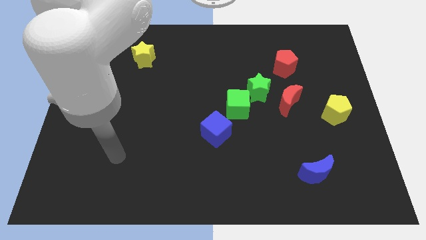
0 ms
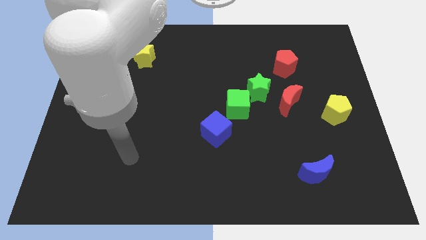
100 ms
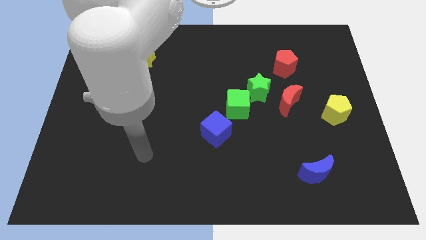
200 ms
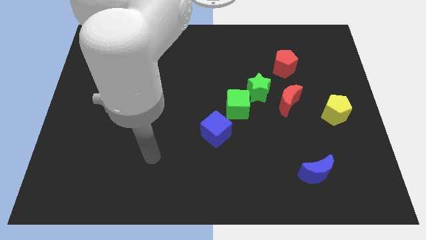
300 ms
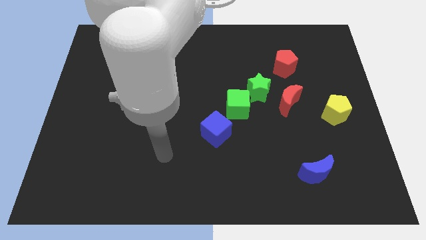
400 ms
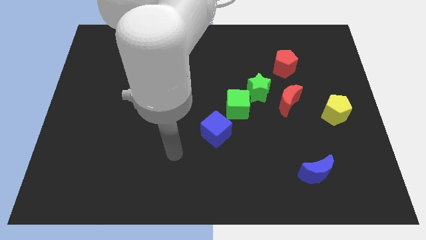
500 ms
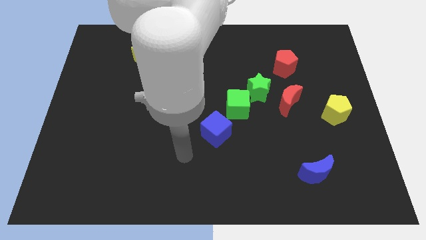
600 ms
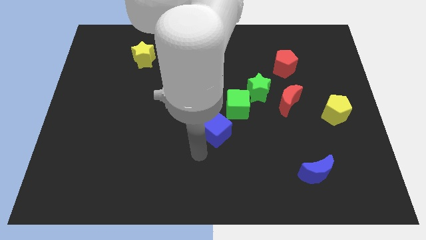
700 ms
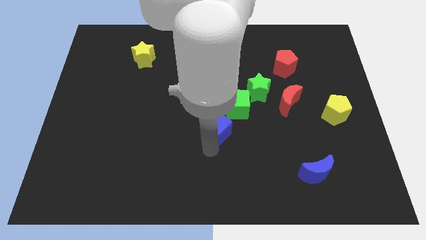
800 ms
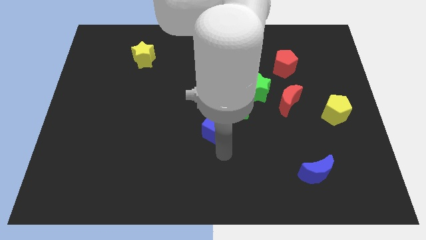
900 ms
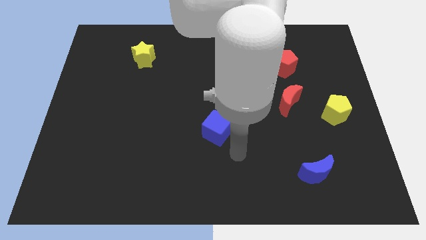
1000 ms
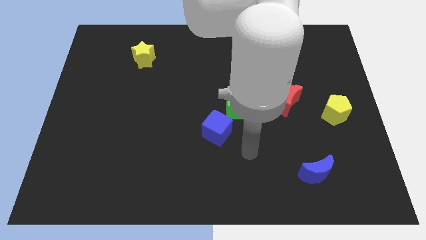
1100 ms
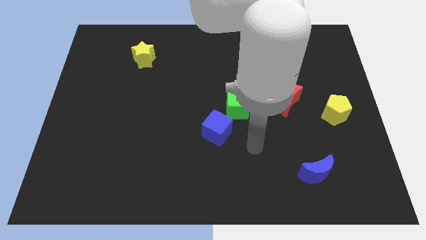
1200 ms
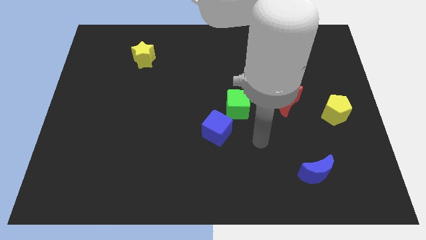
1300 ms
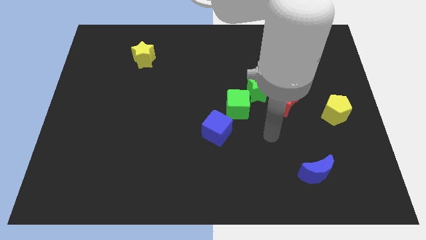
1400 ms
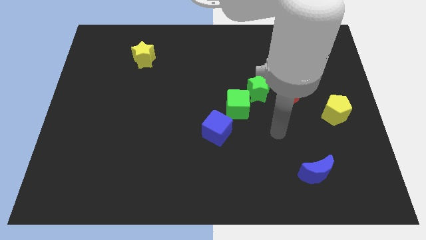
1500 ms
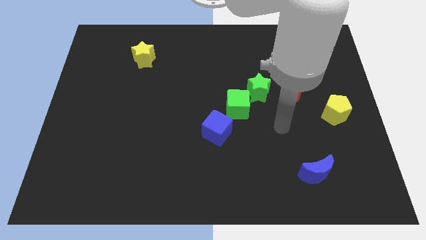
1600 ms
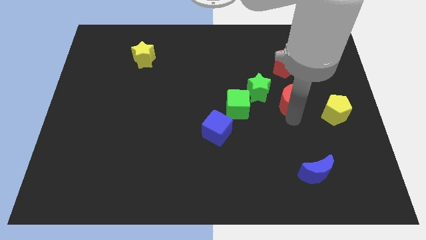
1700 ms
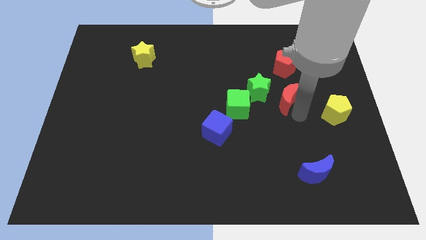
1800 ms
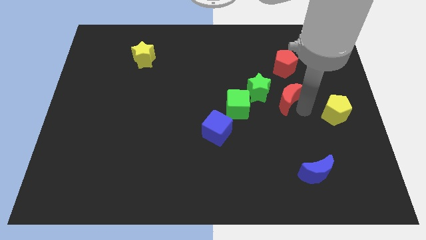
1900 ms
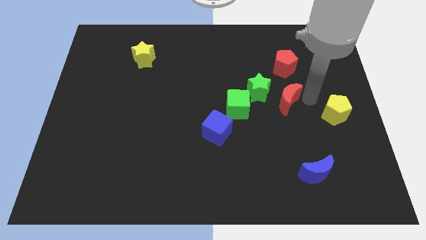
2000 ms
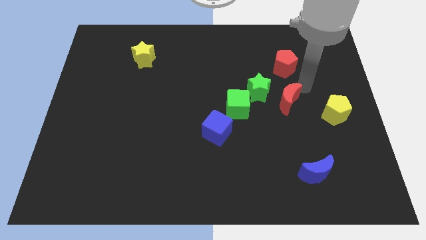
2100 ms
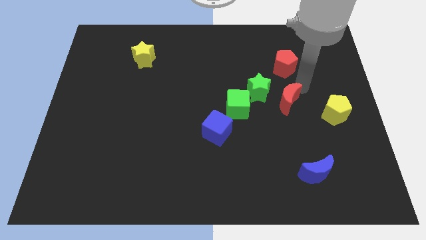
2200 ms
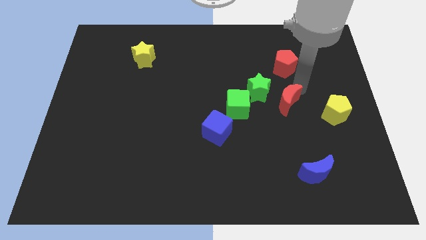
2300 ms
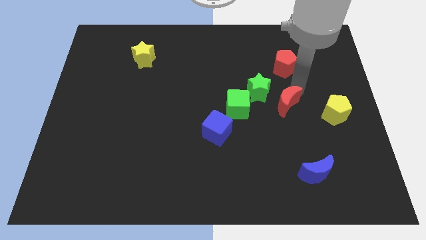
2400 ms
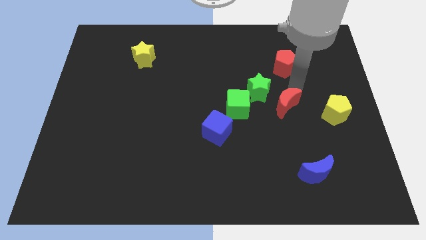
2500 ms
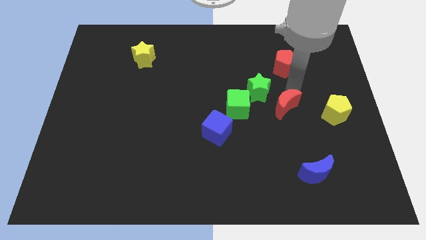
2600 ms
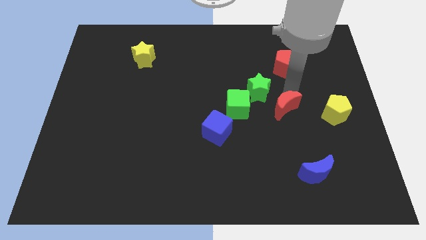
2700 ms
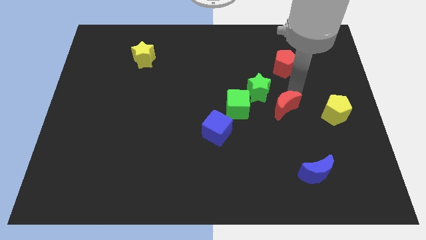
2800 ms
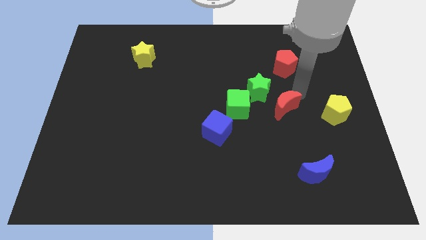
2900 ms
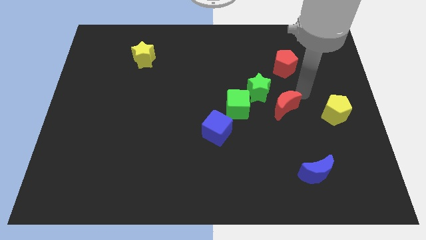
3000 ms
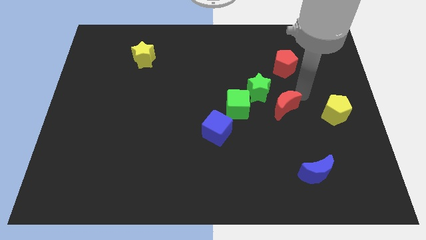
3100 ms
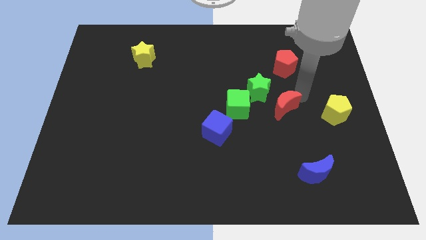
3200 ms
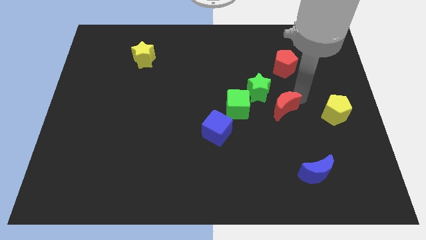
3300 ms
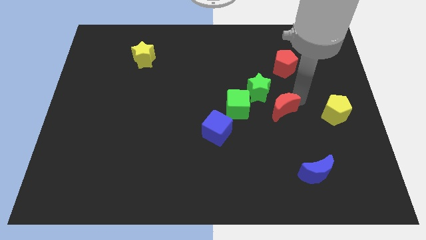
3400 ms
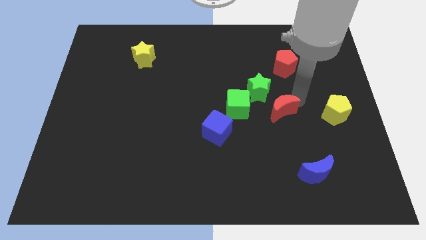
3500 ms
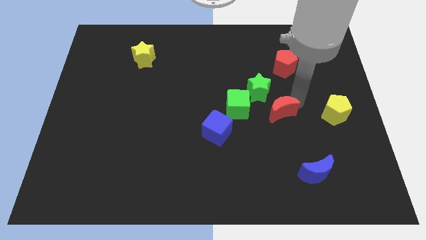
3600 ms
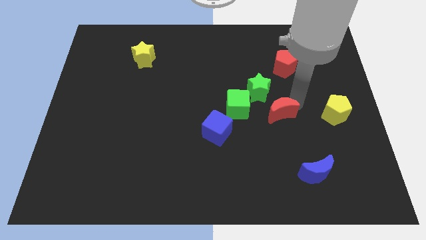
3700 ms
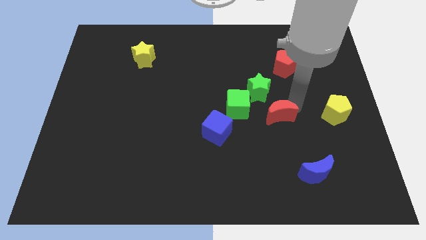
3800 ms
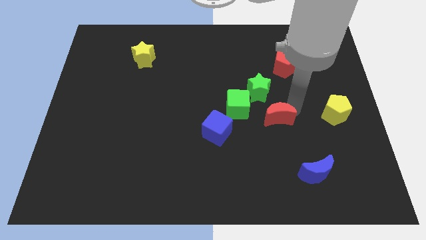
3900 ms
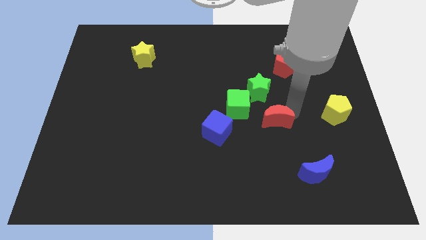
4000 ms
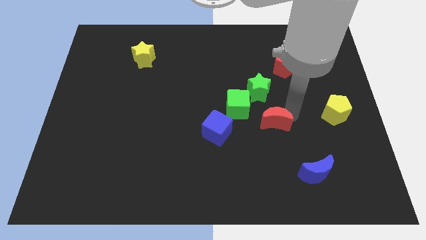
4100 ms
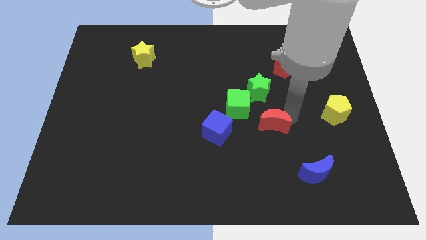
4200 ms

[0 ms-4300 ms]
push the red moon downwards and to the left slightly

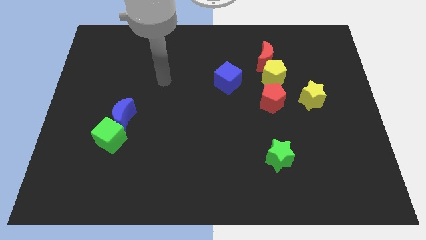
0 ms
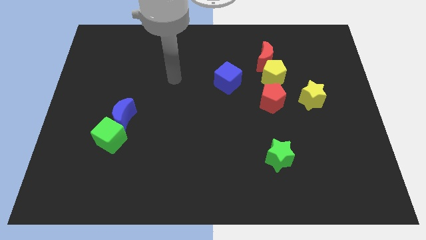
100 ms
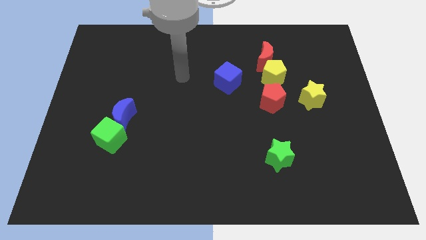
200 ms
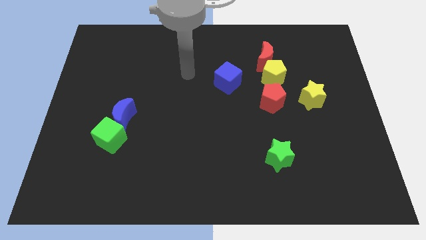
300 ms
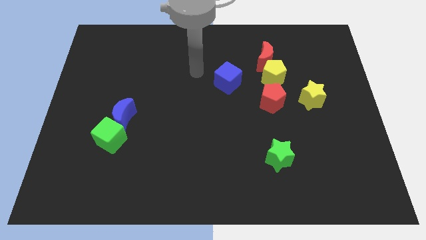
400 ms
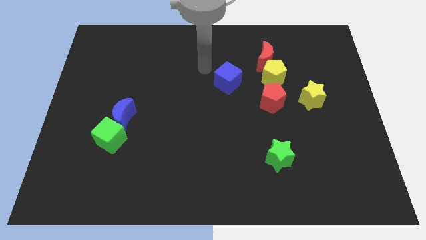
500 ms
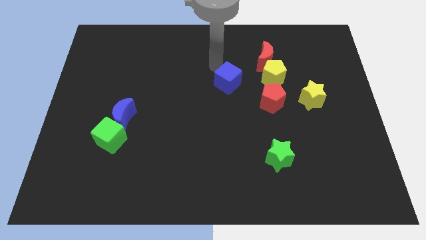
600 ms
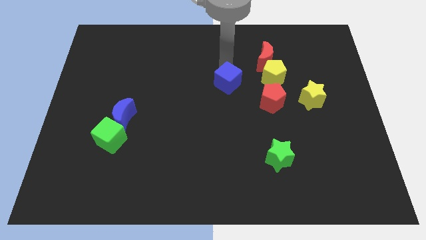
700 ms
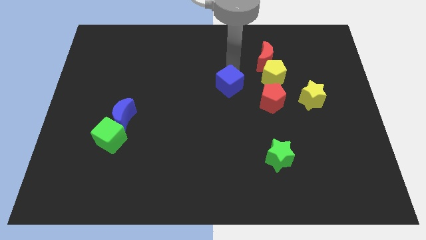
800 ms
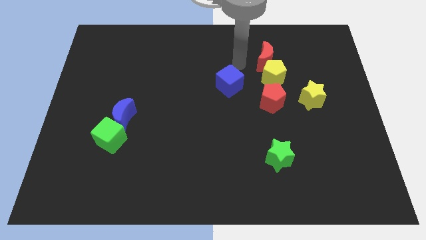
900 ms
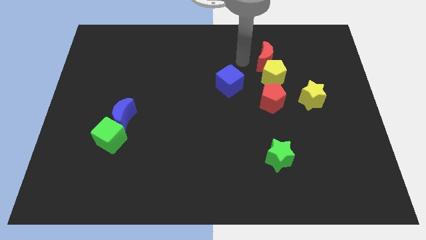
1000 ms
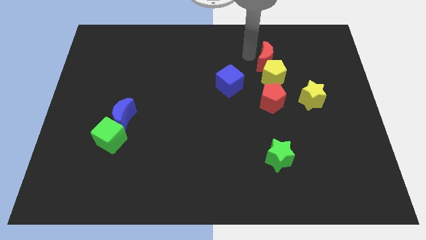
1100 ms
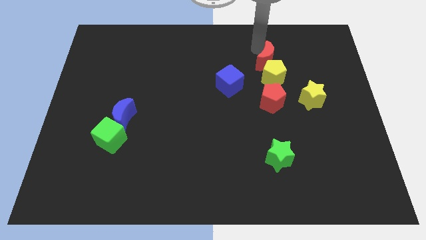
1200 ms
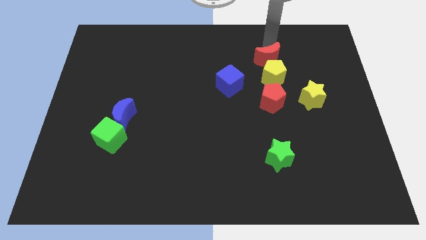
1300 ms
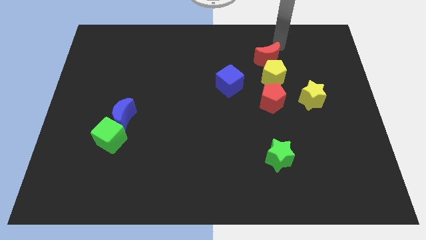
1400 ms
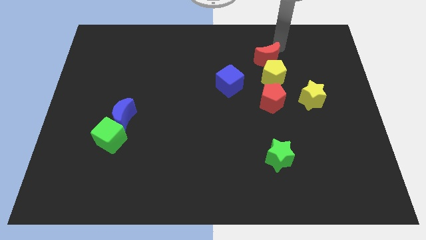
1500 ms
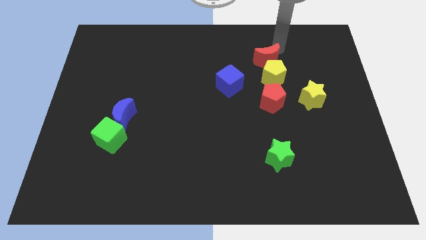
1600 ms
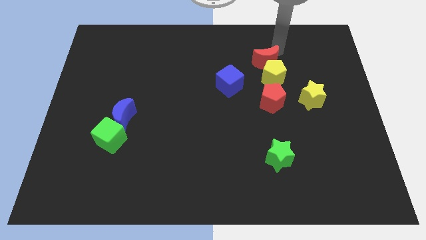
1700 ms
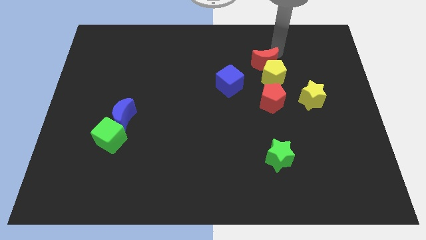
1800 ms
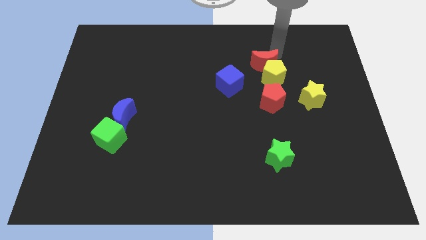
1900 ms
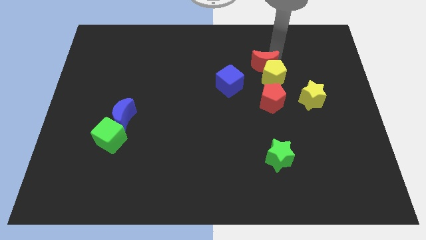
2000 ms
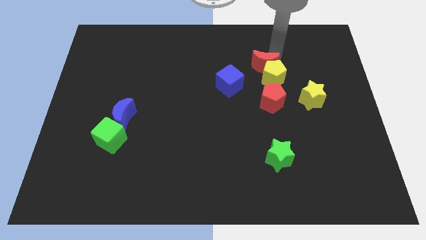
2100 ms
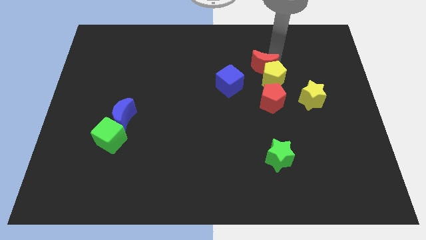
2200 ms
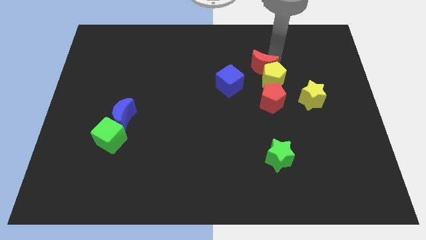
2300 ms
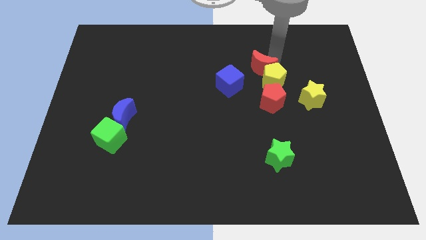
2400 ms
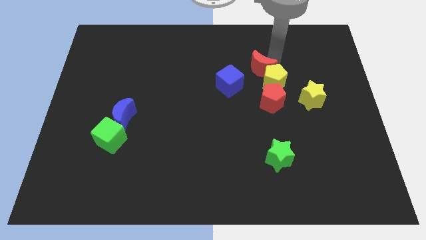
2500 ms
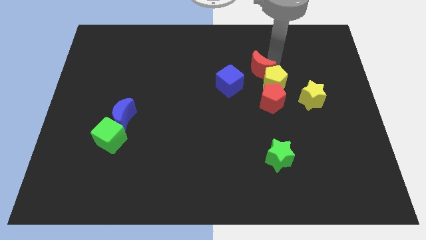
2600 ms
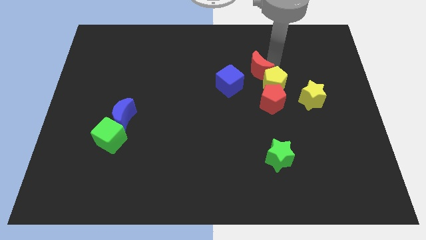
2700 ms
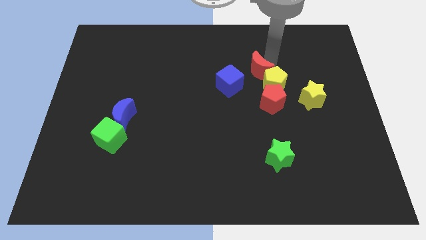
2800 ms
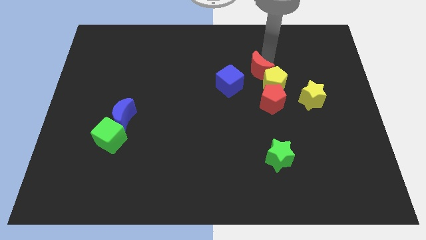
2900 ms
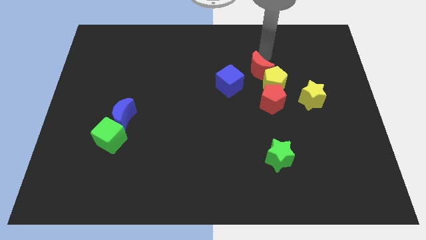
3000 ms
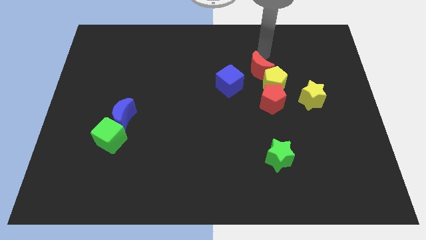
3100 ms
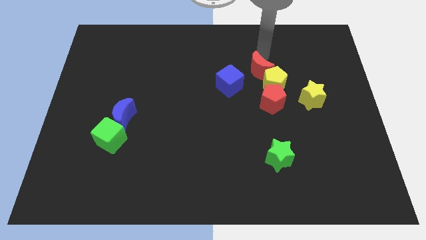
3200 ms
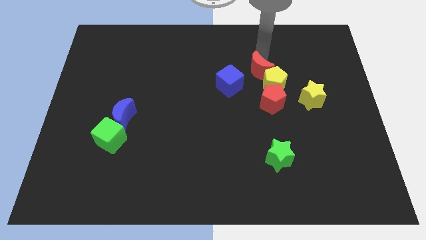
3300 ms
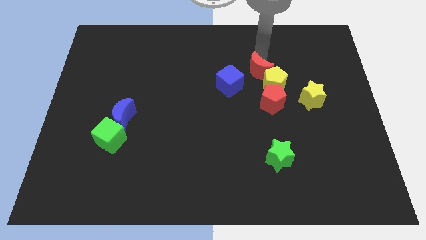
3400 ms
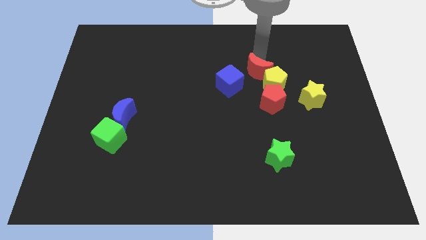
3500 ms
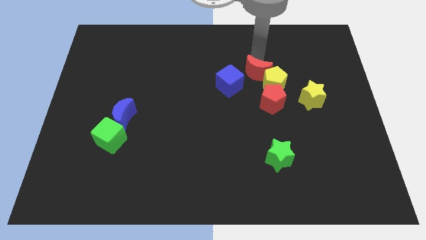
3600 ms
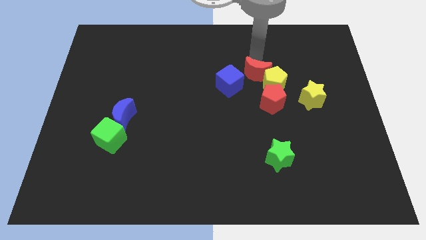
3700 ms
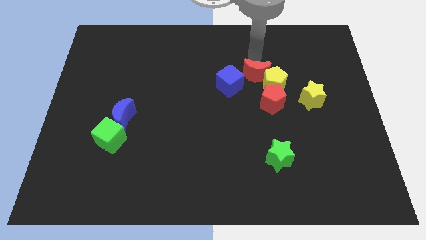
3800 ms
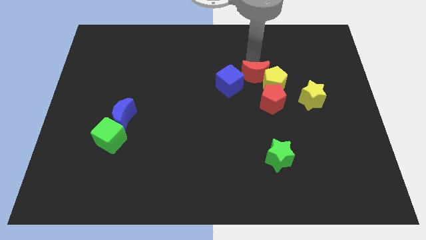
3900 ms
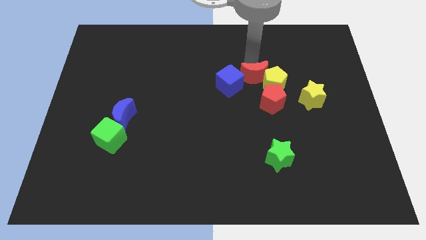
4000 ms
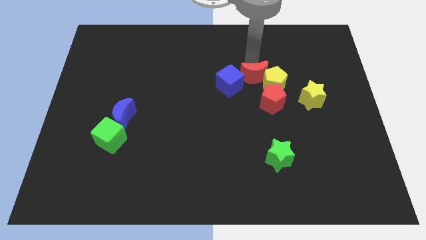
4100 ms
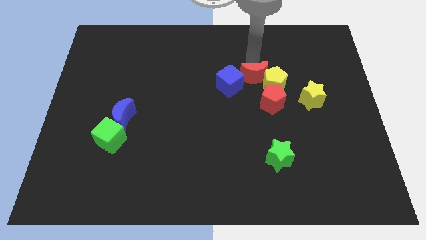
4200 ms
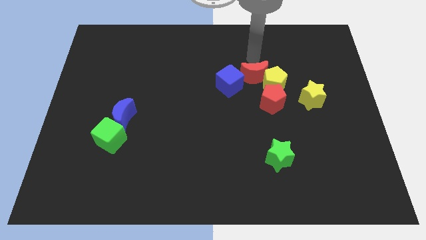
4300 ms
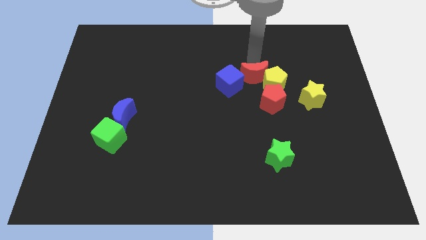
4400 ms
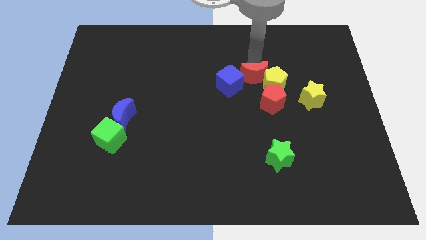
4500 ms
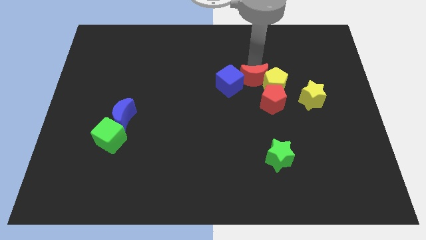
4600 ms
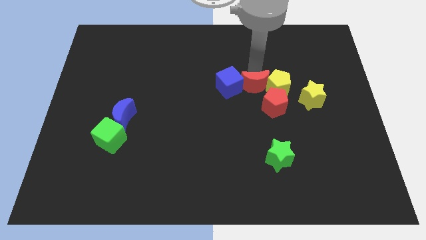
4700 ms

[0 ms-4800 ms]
slide the red moon a little bit down
